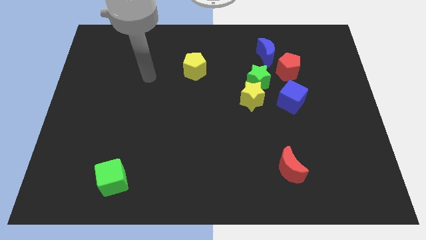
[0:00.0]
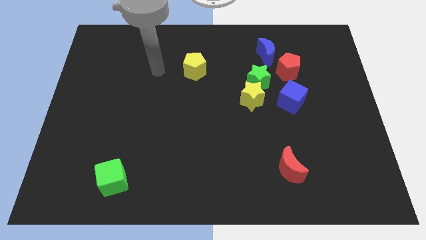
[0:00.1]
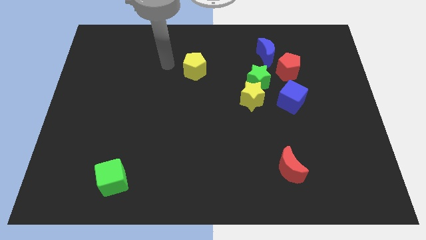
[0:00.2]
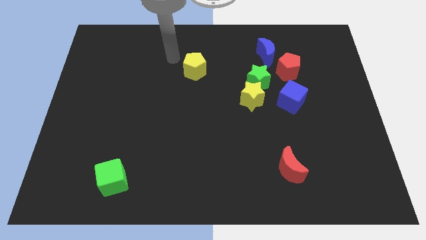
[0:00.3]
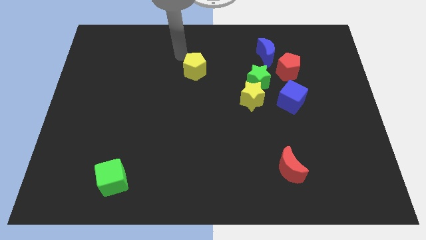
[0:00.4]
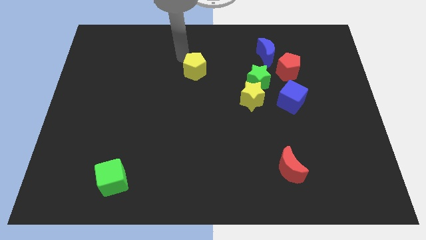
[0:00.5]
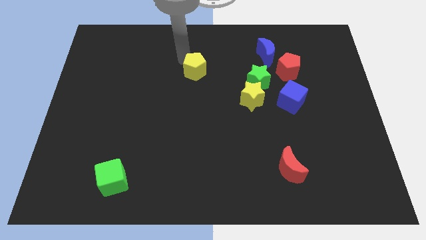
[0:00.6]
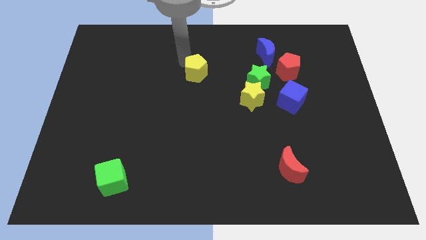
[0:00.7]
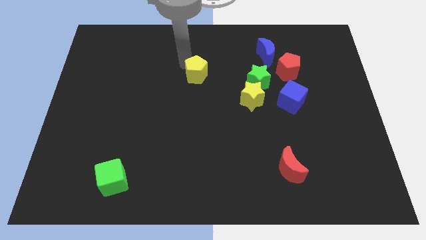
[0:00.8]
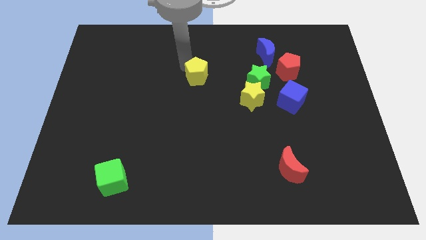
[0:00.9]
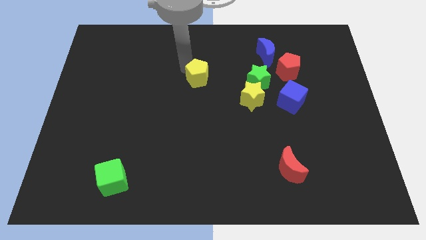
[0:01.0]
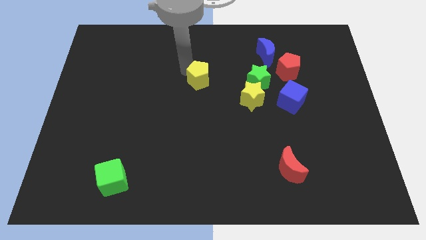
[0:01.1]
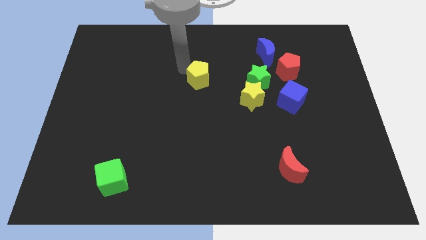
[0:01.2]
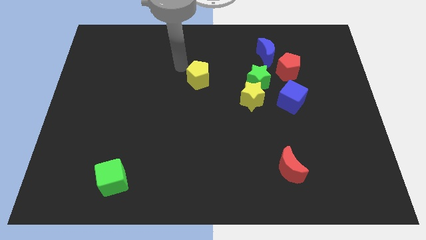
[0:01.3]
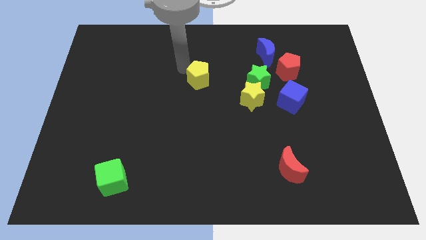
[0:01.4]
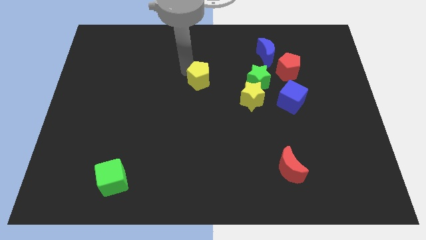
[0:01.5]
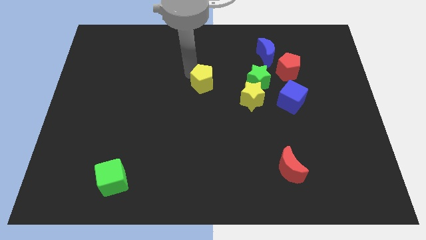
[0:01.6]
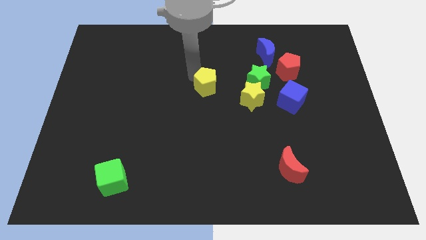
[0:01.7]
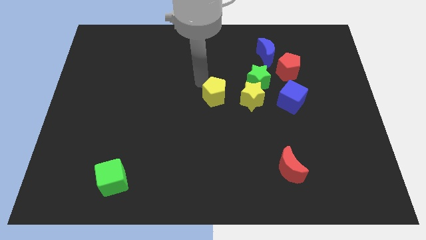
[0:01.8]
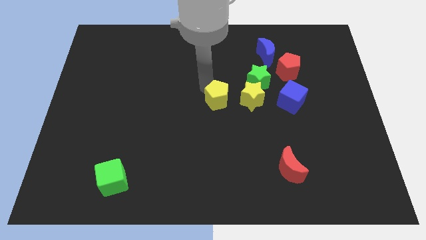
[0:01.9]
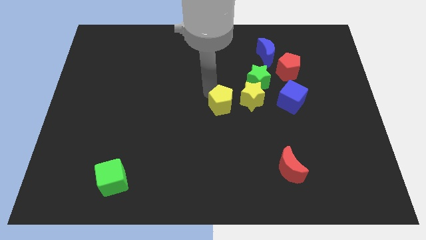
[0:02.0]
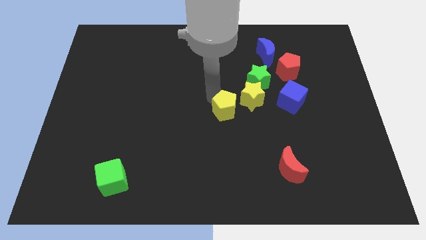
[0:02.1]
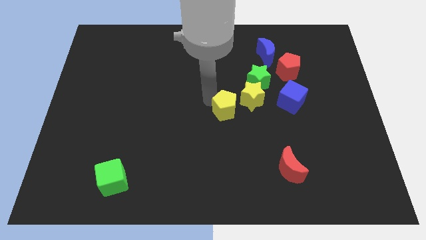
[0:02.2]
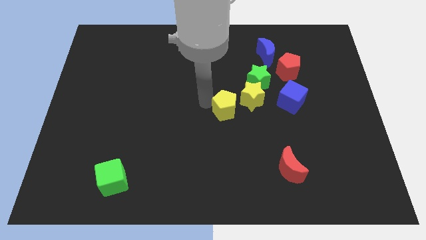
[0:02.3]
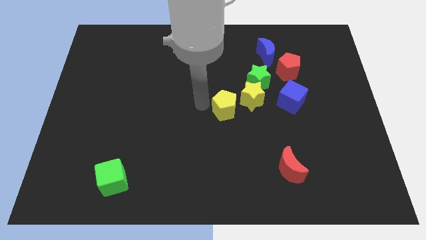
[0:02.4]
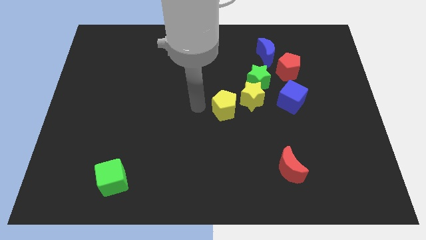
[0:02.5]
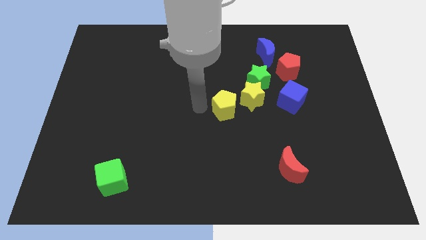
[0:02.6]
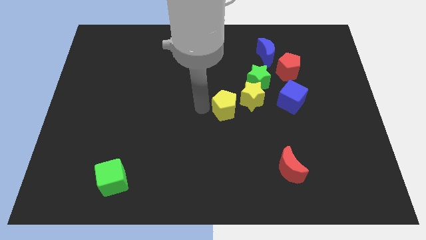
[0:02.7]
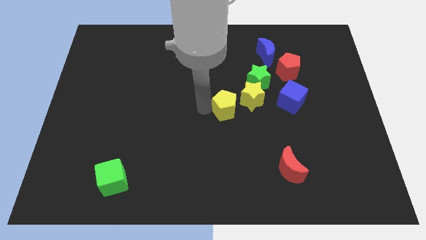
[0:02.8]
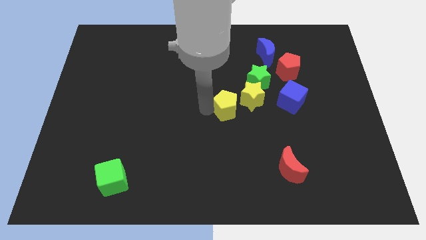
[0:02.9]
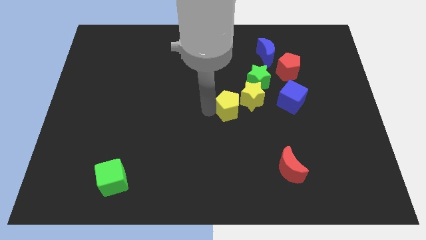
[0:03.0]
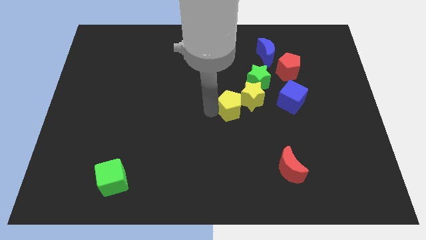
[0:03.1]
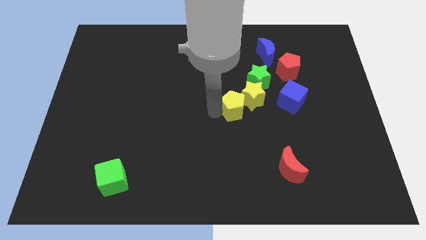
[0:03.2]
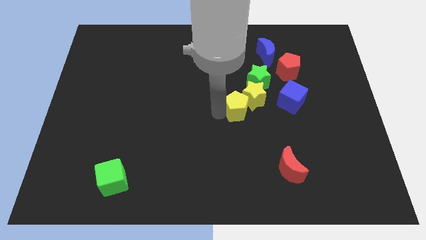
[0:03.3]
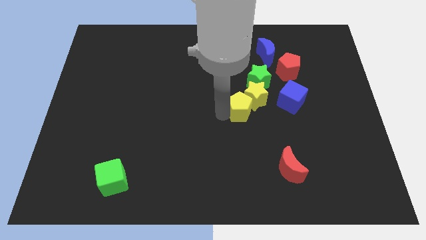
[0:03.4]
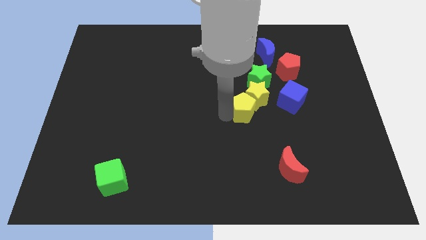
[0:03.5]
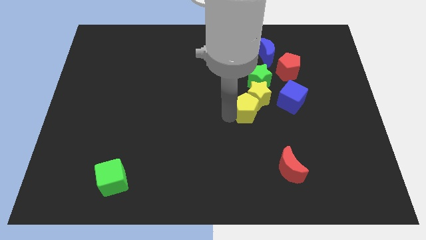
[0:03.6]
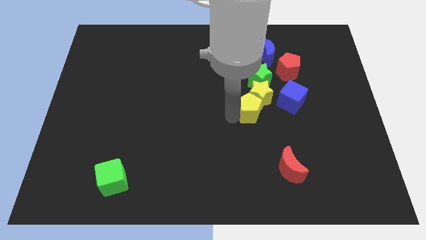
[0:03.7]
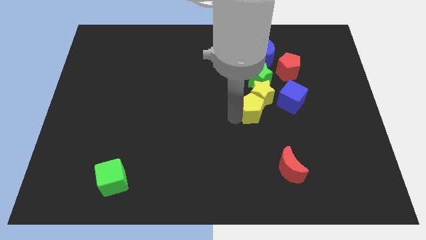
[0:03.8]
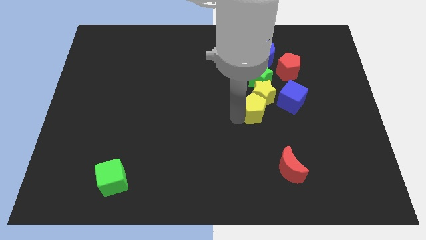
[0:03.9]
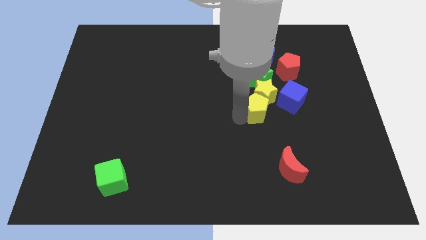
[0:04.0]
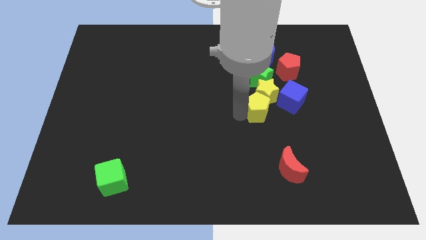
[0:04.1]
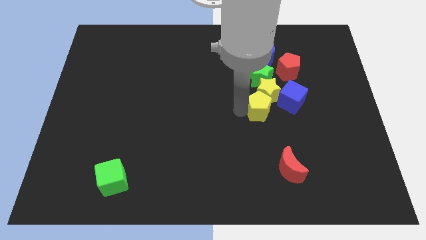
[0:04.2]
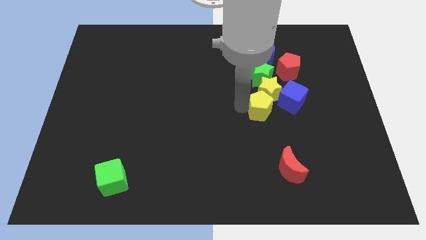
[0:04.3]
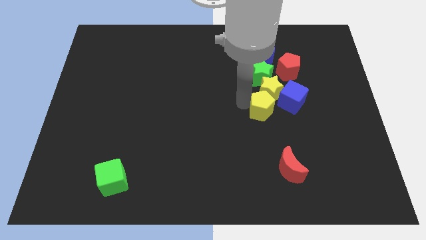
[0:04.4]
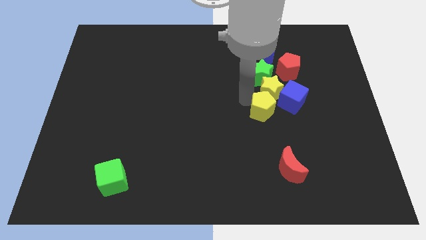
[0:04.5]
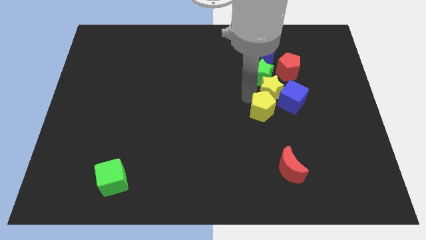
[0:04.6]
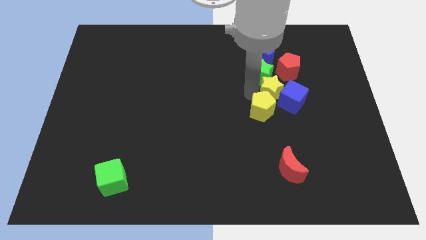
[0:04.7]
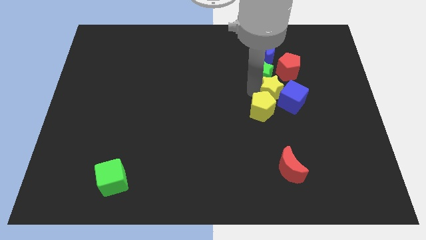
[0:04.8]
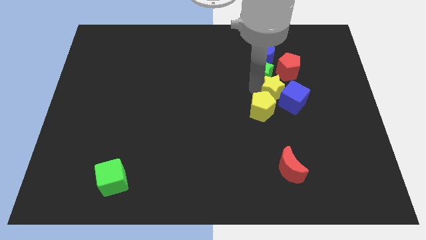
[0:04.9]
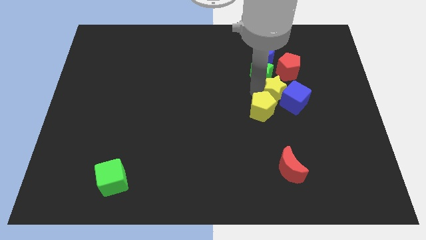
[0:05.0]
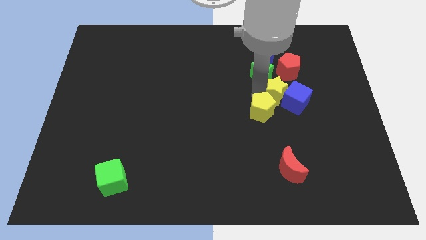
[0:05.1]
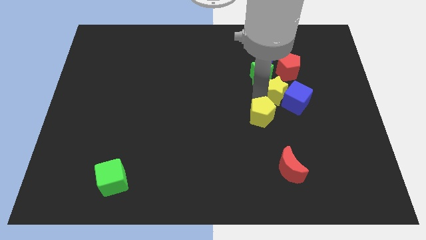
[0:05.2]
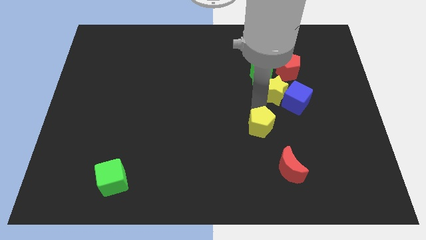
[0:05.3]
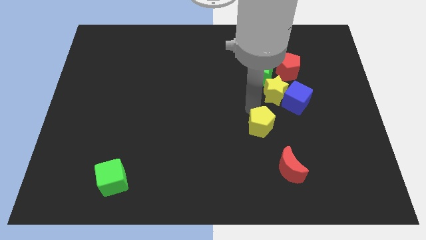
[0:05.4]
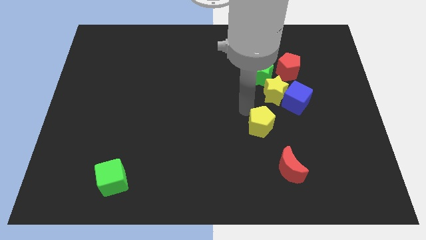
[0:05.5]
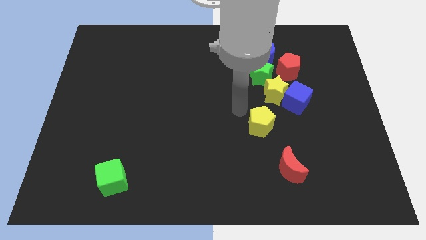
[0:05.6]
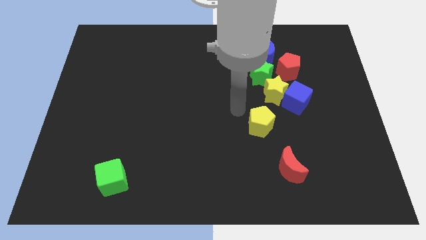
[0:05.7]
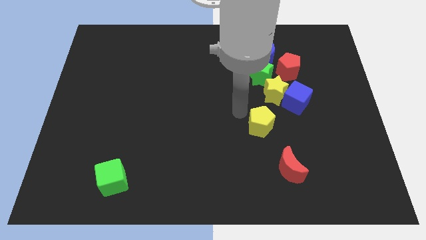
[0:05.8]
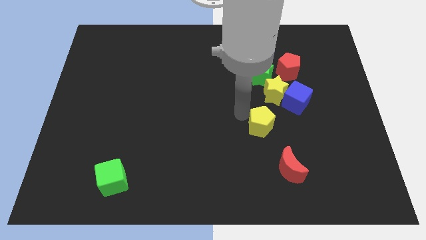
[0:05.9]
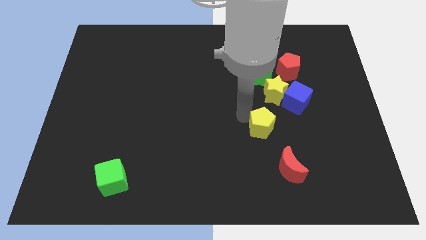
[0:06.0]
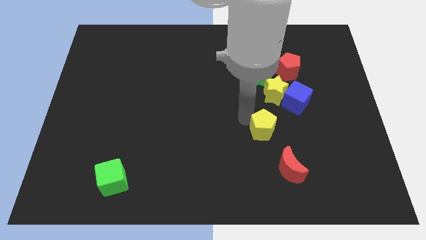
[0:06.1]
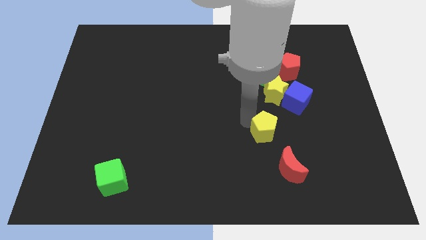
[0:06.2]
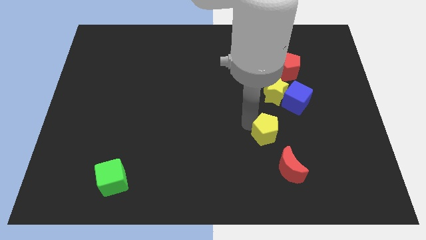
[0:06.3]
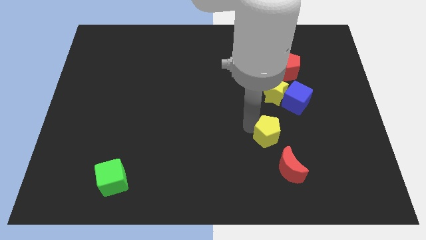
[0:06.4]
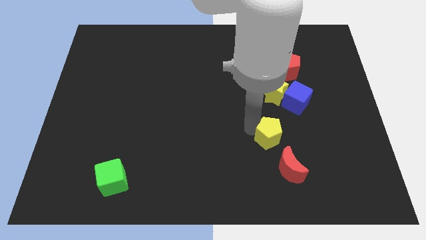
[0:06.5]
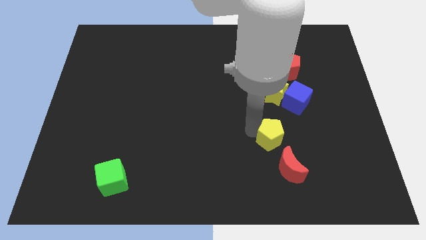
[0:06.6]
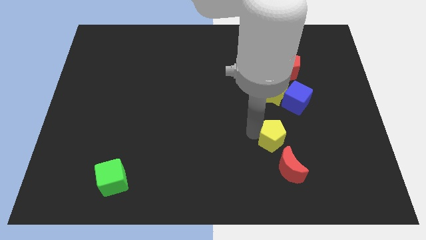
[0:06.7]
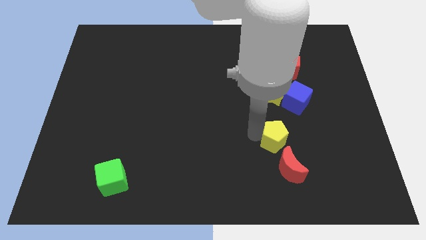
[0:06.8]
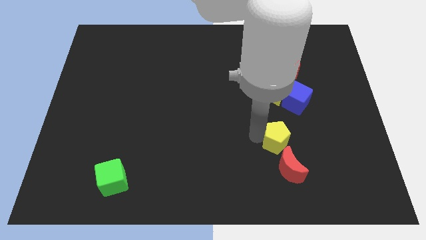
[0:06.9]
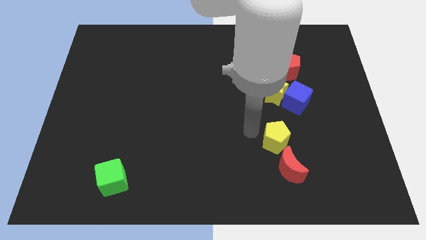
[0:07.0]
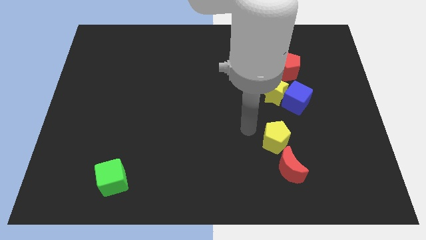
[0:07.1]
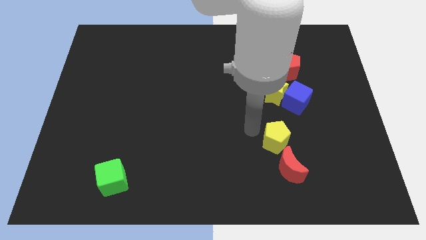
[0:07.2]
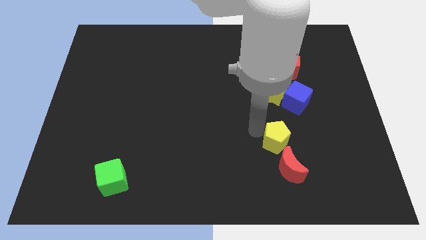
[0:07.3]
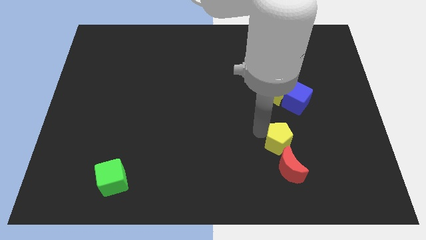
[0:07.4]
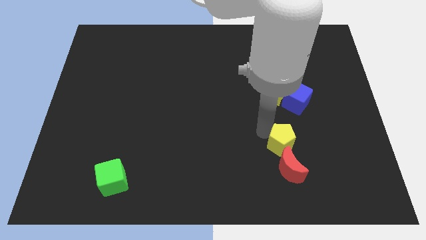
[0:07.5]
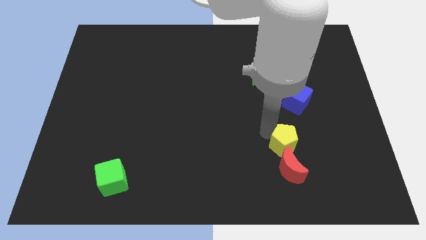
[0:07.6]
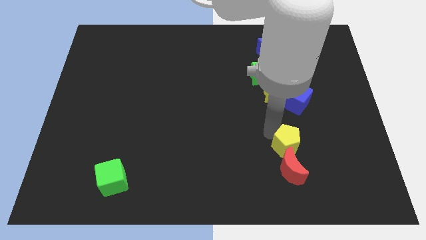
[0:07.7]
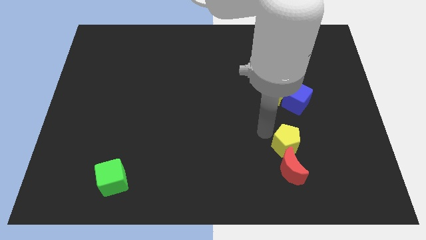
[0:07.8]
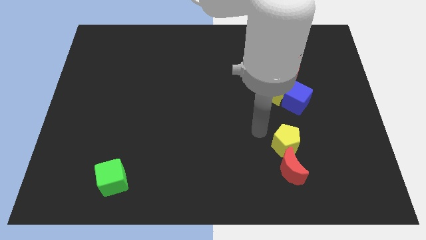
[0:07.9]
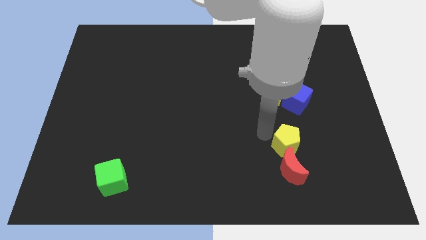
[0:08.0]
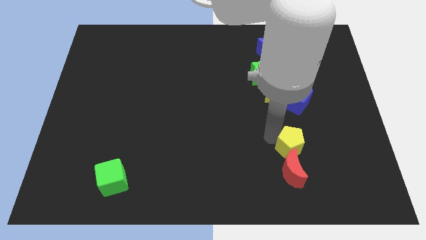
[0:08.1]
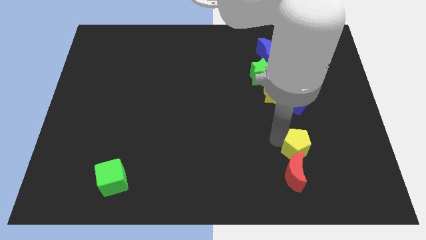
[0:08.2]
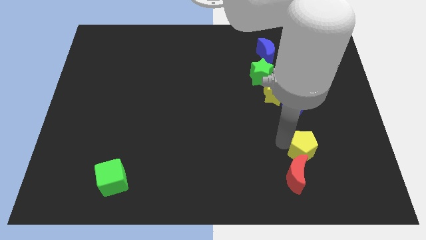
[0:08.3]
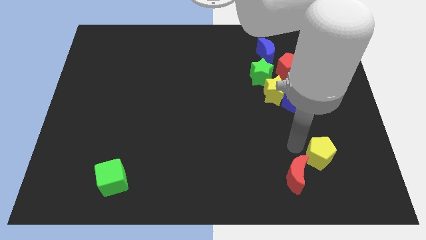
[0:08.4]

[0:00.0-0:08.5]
put the yellow pentagon just right of the red moon
